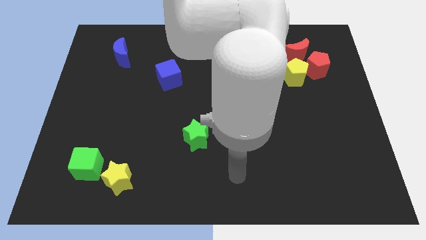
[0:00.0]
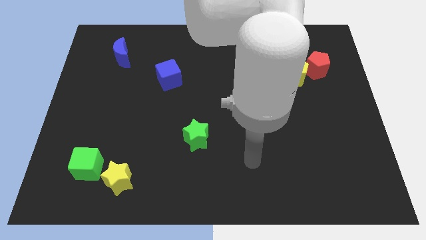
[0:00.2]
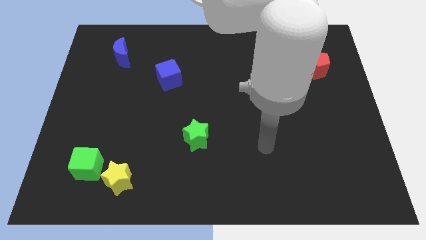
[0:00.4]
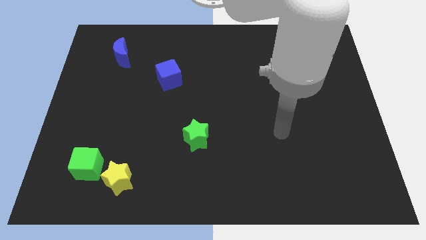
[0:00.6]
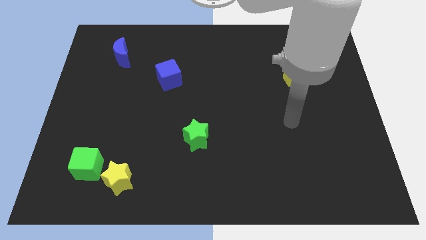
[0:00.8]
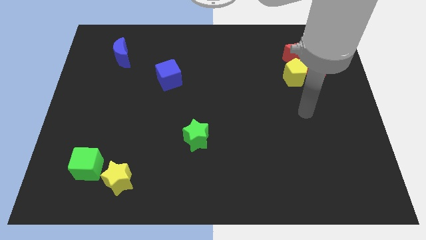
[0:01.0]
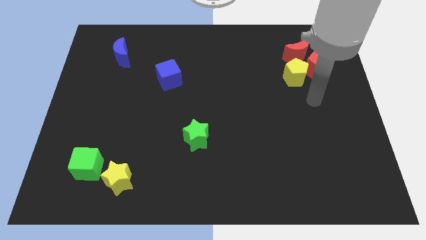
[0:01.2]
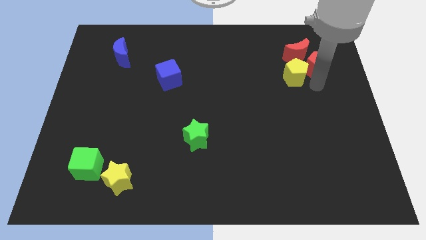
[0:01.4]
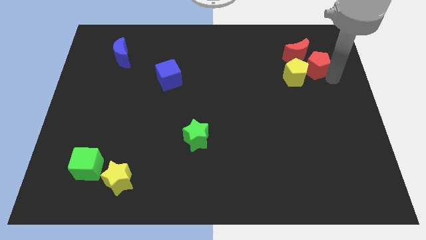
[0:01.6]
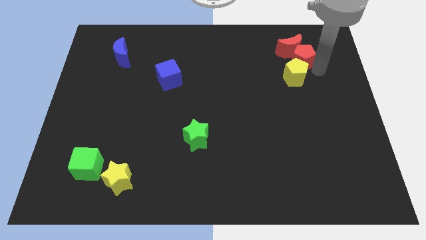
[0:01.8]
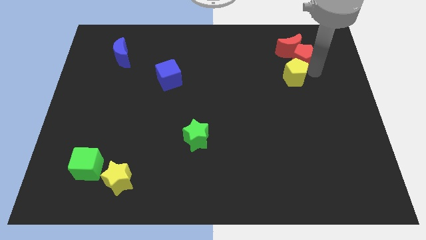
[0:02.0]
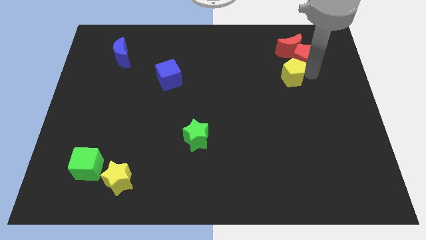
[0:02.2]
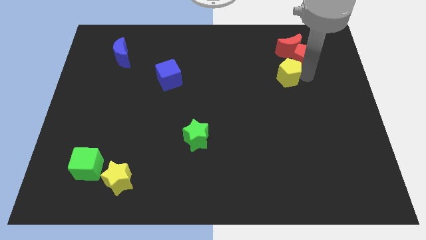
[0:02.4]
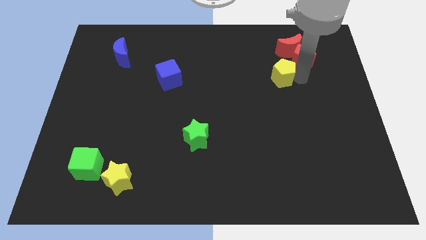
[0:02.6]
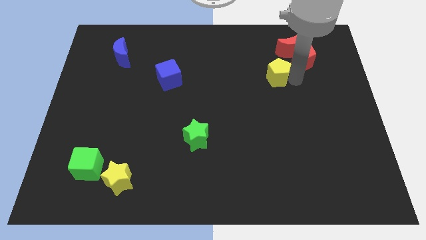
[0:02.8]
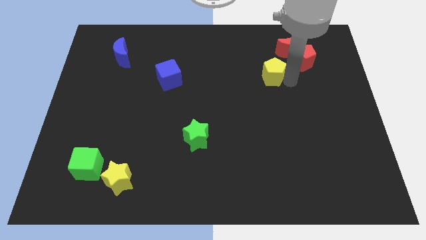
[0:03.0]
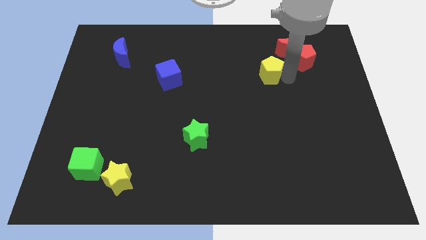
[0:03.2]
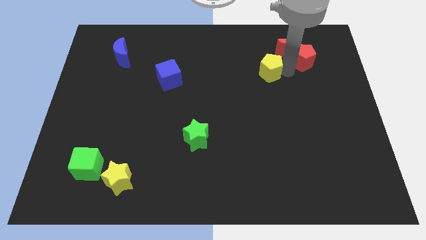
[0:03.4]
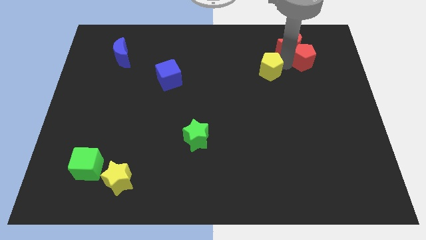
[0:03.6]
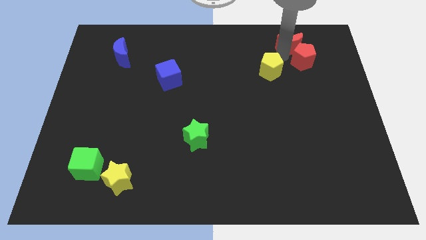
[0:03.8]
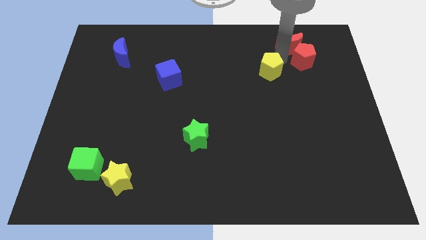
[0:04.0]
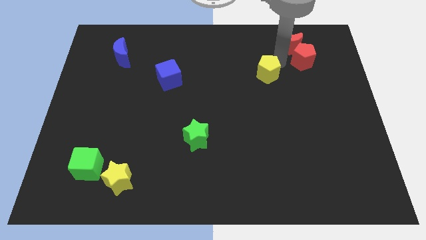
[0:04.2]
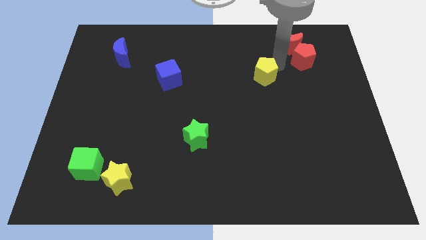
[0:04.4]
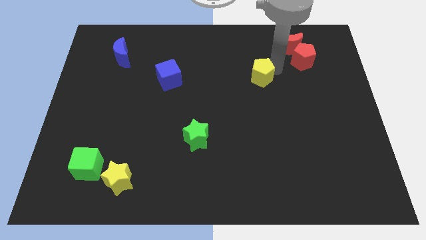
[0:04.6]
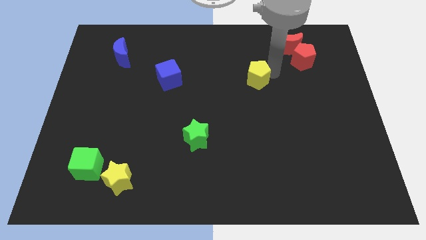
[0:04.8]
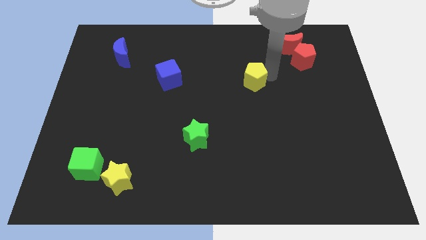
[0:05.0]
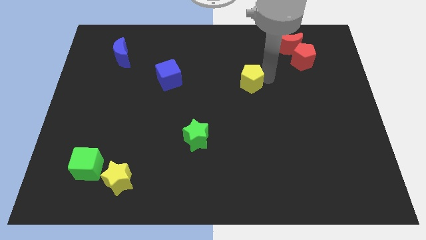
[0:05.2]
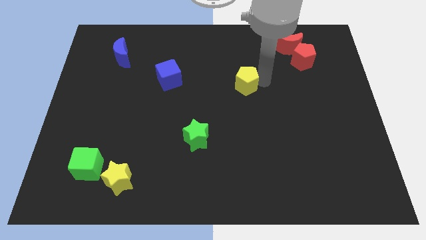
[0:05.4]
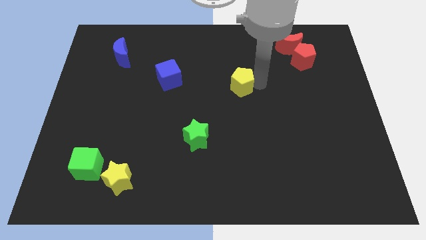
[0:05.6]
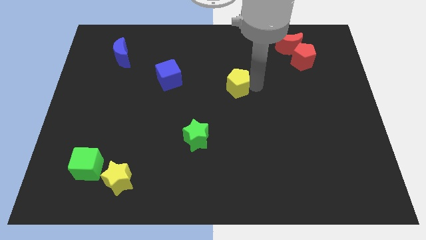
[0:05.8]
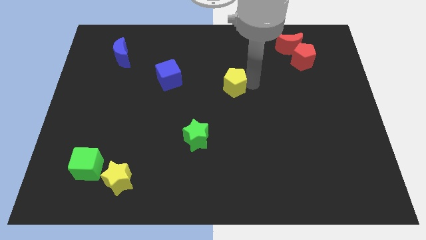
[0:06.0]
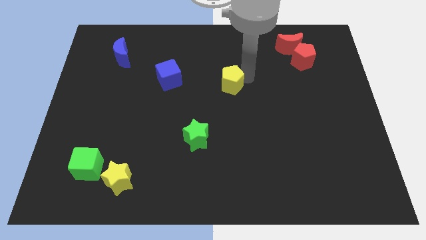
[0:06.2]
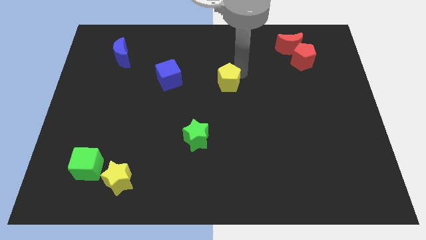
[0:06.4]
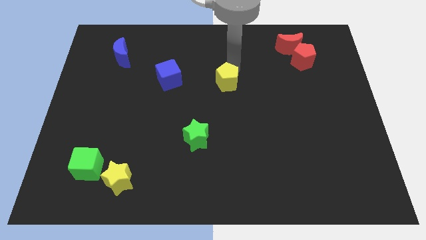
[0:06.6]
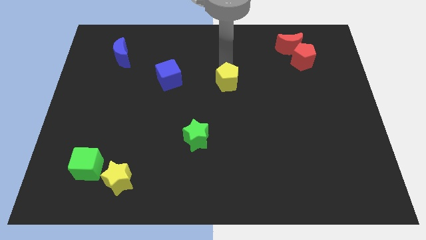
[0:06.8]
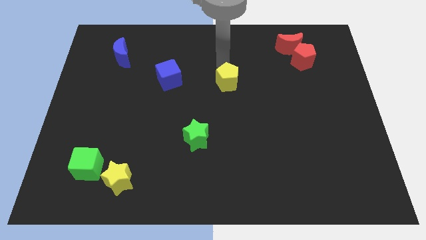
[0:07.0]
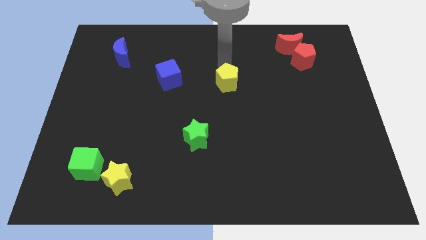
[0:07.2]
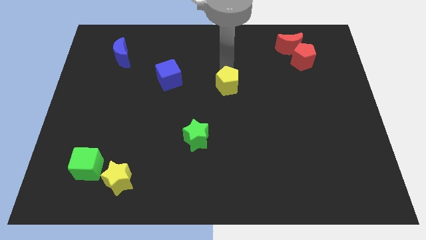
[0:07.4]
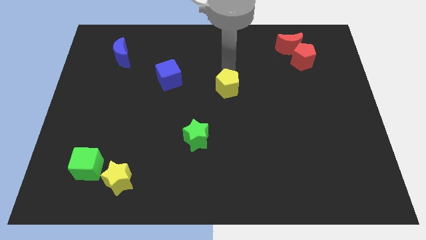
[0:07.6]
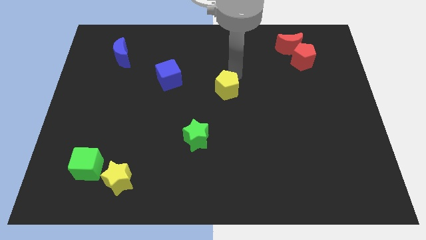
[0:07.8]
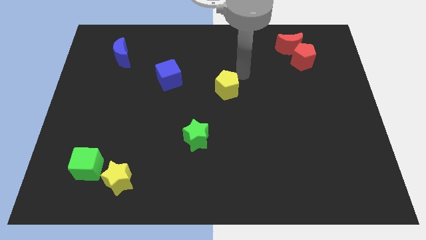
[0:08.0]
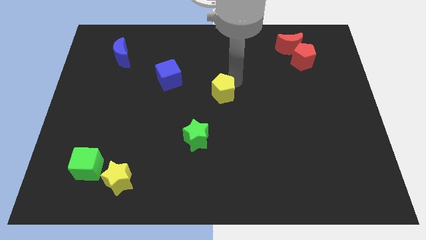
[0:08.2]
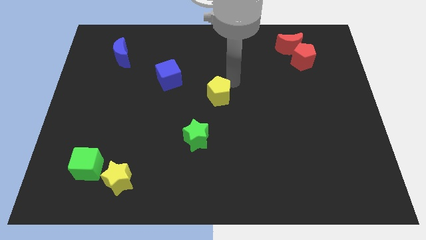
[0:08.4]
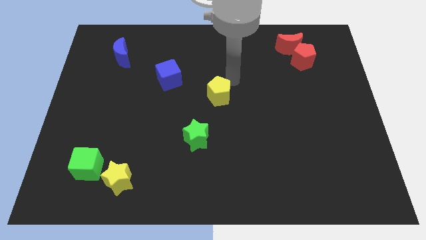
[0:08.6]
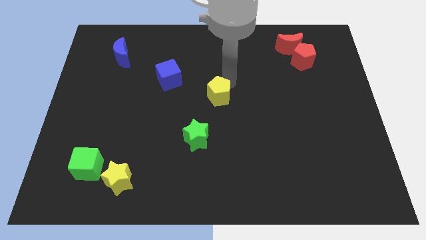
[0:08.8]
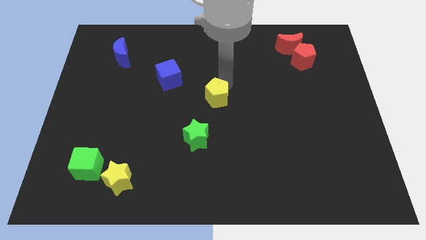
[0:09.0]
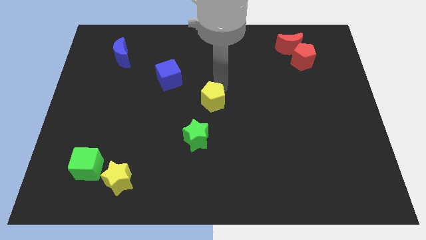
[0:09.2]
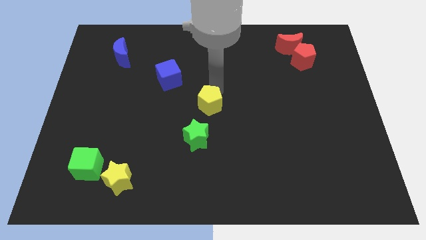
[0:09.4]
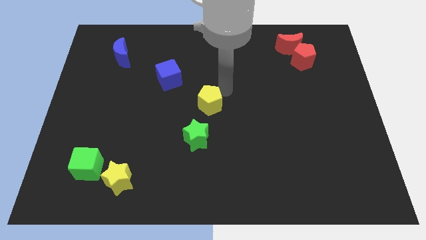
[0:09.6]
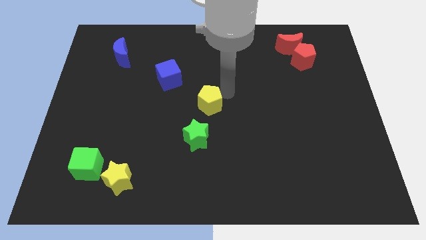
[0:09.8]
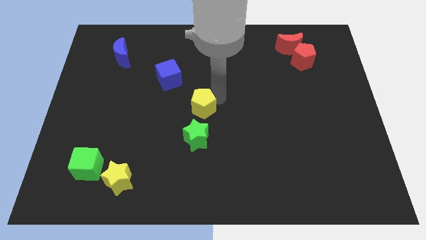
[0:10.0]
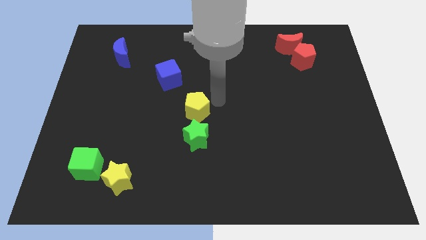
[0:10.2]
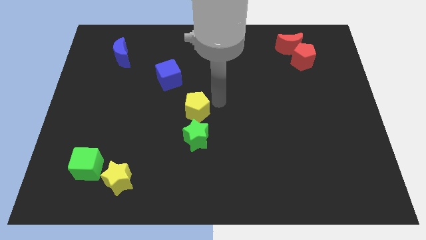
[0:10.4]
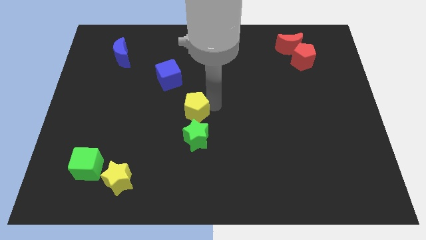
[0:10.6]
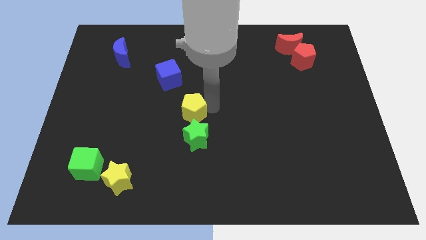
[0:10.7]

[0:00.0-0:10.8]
move the yellow pentagon to the top left of the green star

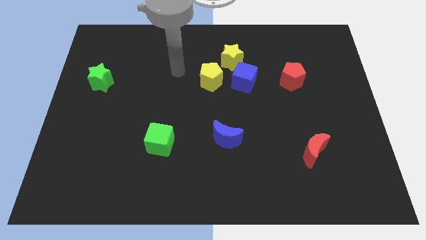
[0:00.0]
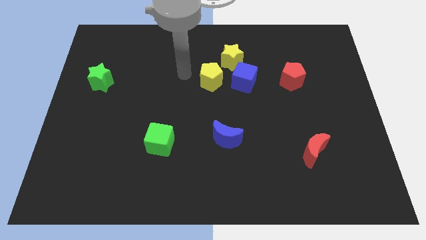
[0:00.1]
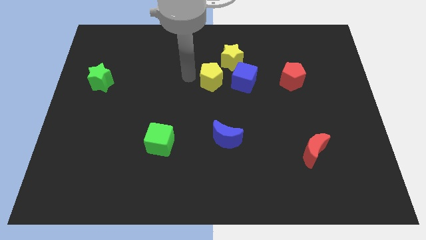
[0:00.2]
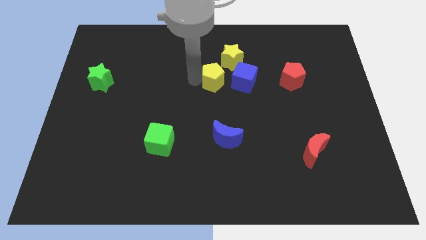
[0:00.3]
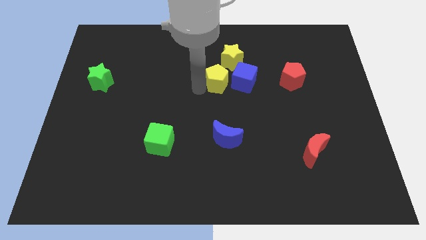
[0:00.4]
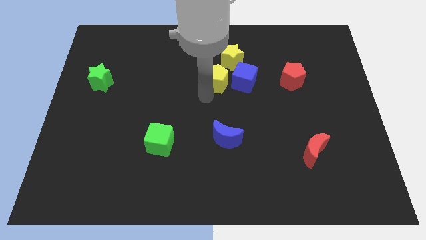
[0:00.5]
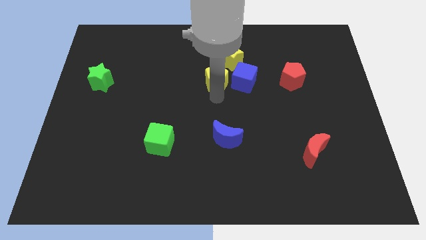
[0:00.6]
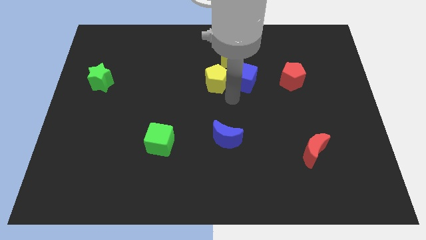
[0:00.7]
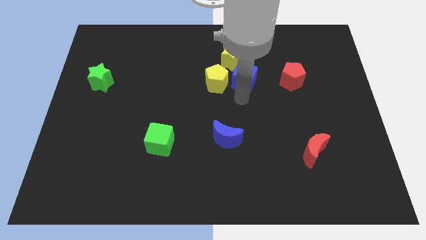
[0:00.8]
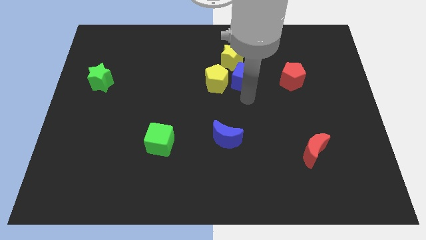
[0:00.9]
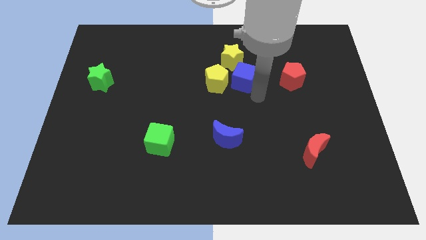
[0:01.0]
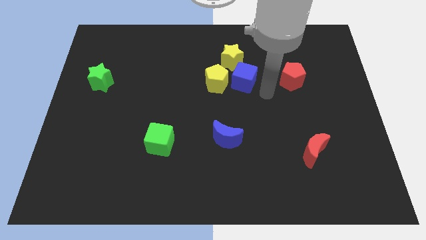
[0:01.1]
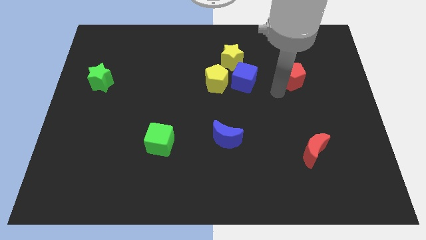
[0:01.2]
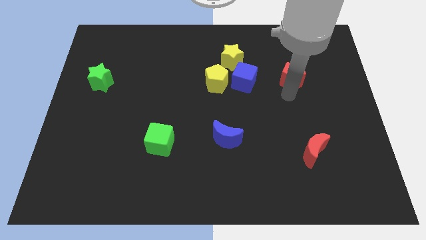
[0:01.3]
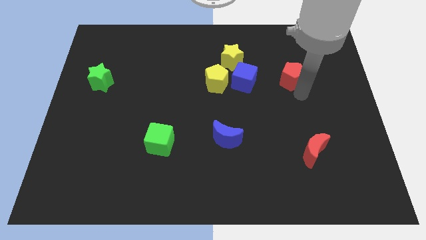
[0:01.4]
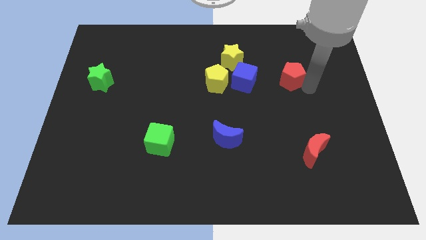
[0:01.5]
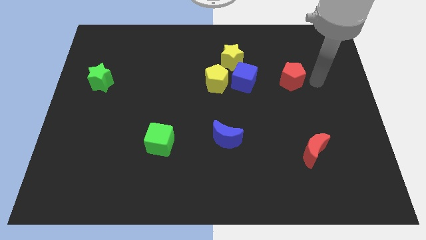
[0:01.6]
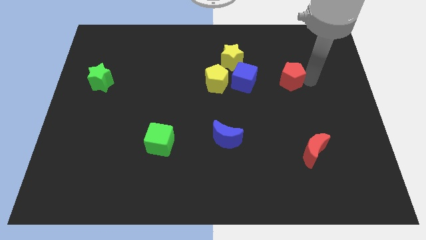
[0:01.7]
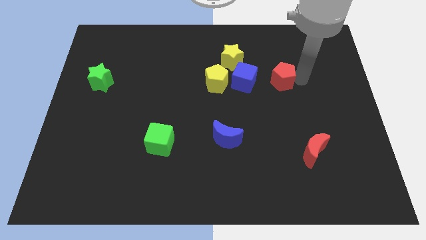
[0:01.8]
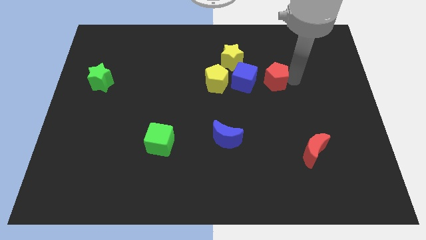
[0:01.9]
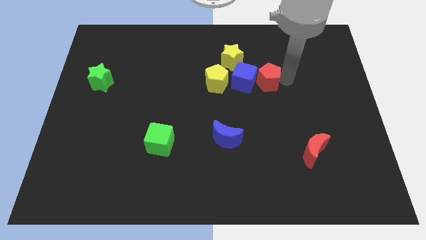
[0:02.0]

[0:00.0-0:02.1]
push the red pentagon to the bottom right of the yellow star
